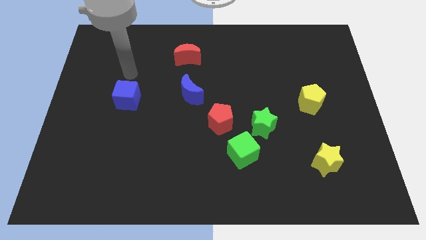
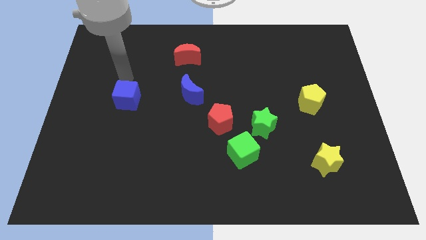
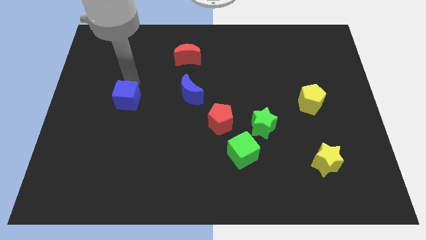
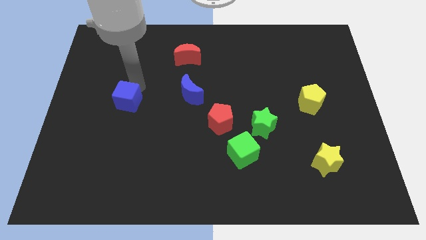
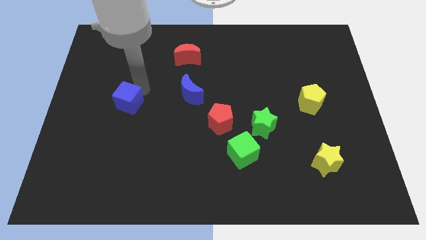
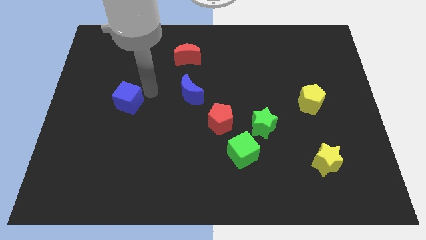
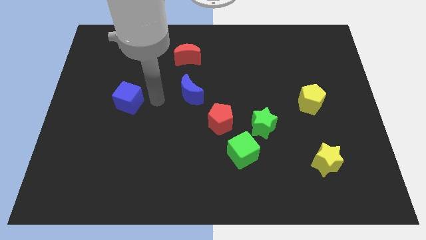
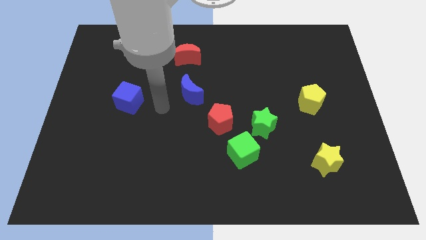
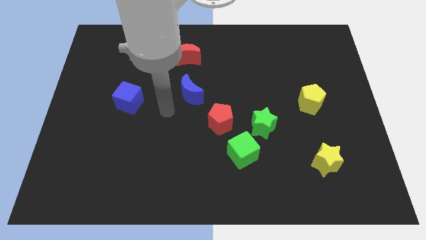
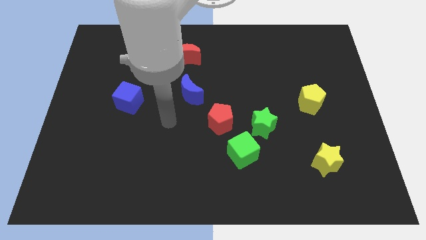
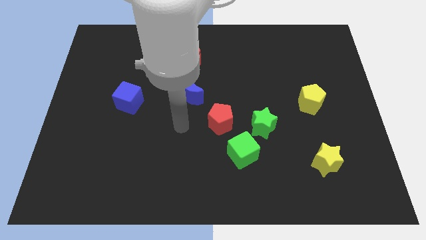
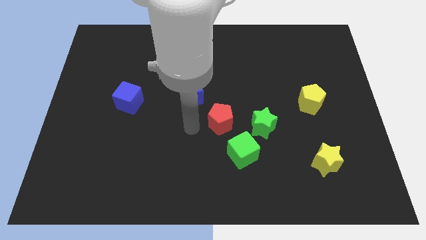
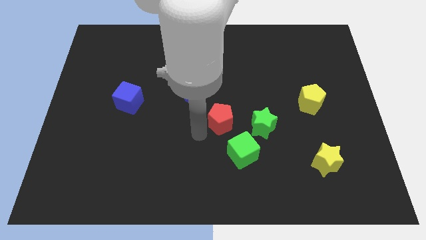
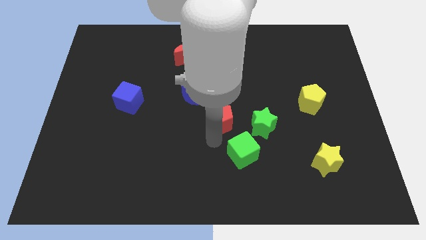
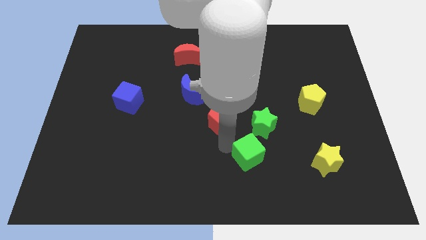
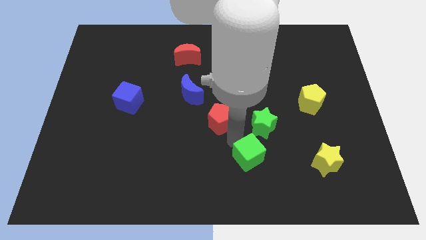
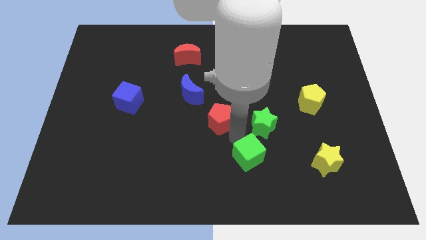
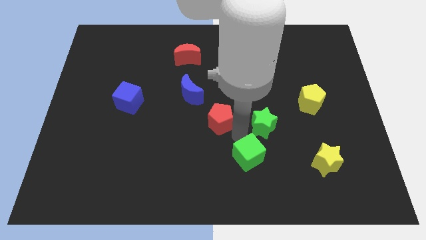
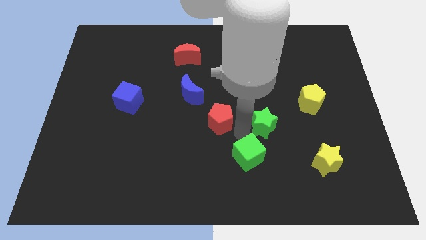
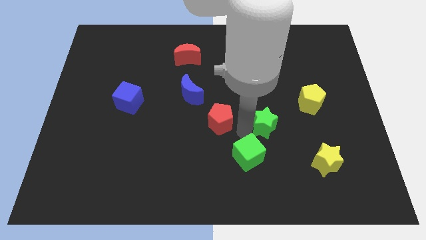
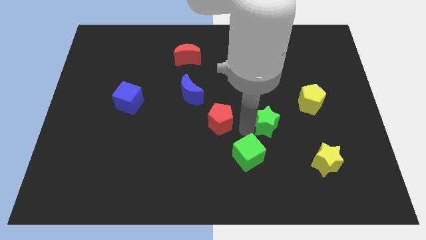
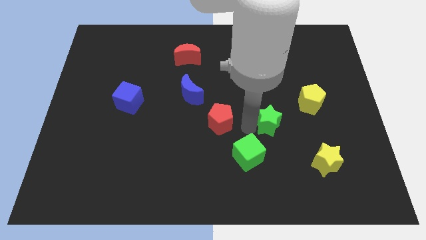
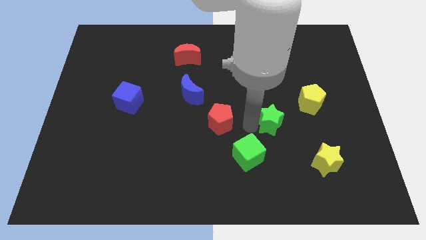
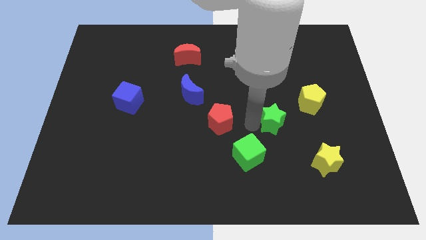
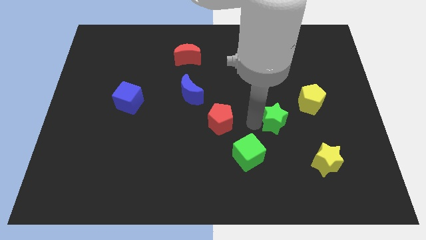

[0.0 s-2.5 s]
separate the green star from the green cube and red pentagon

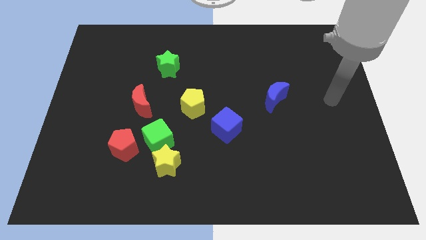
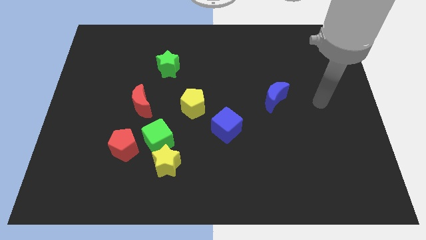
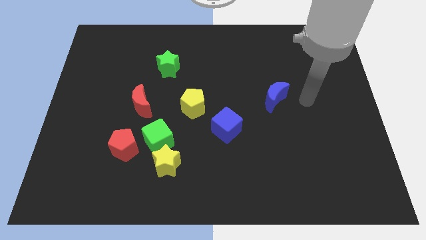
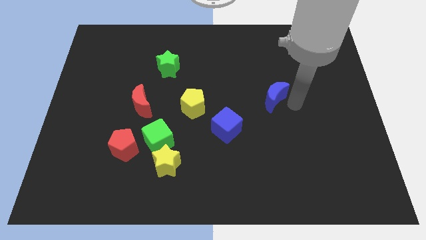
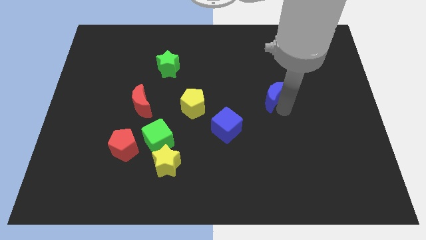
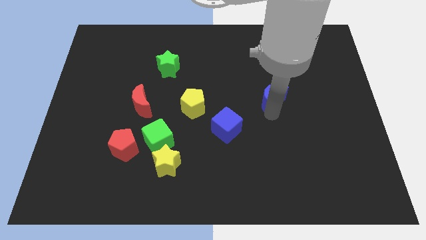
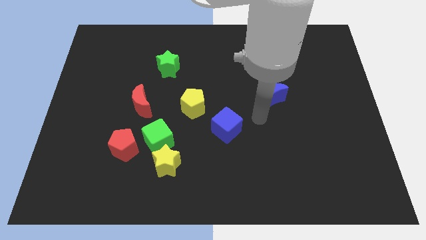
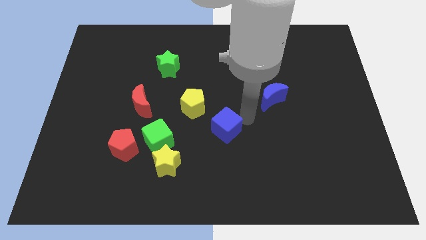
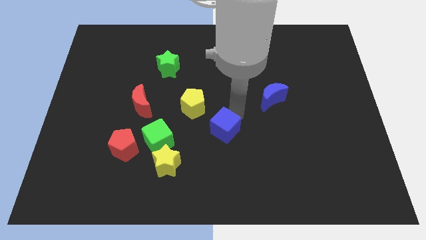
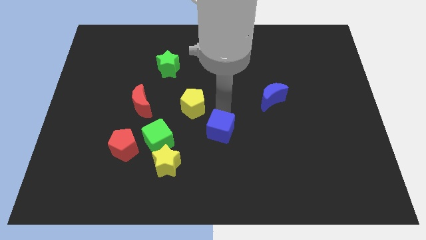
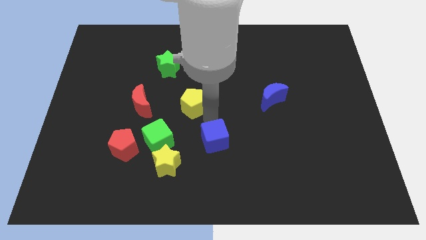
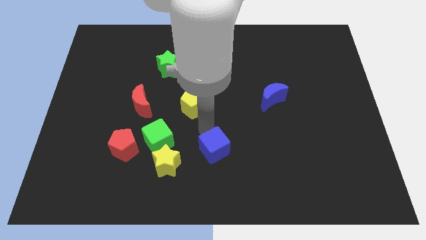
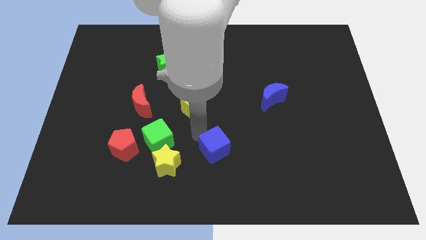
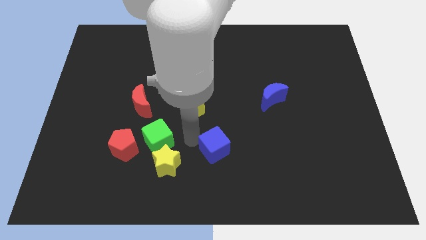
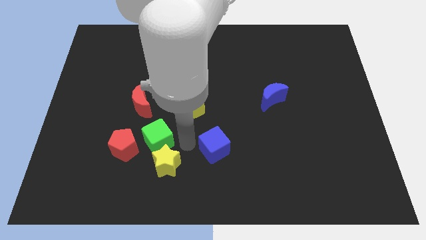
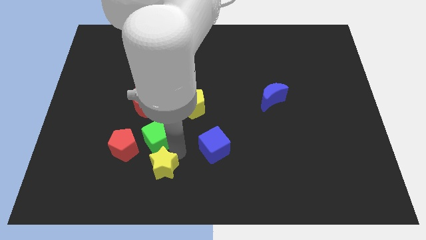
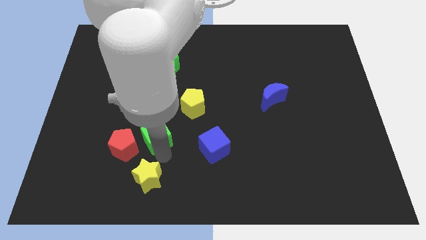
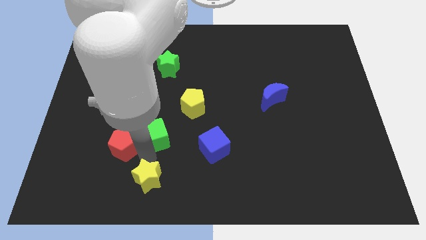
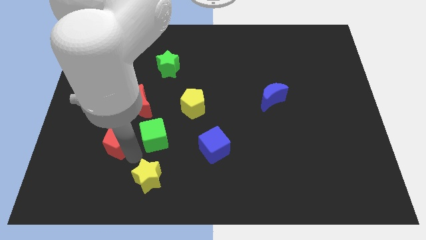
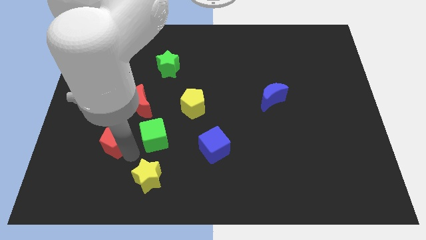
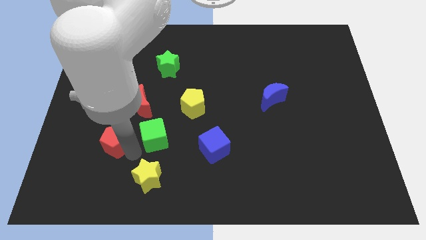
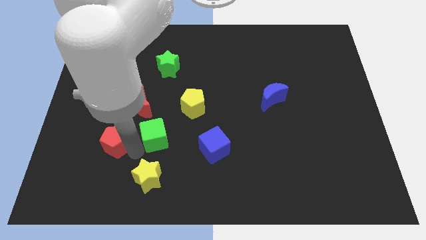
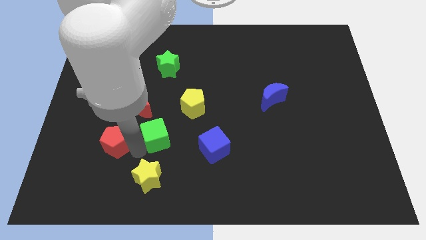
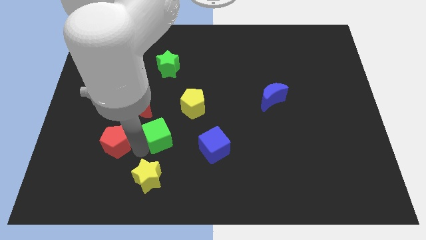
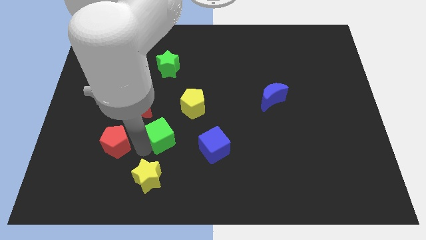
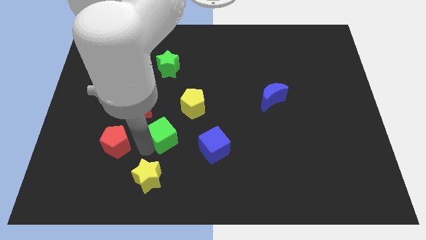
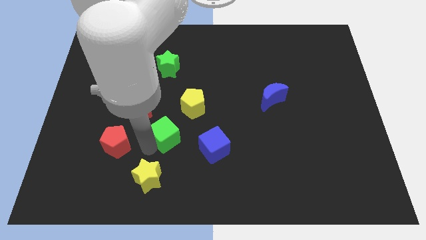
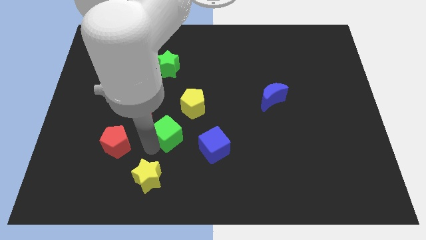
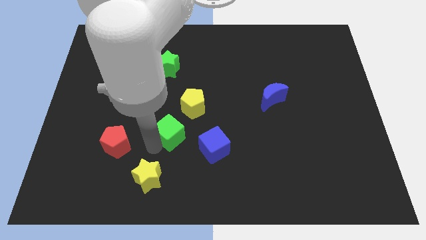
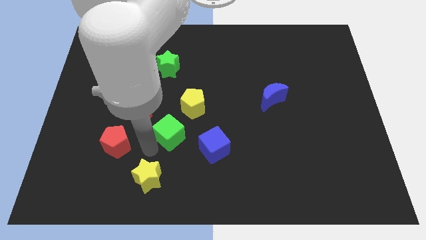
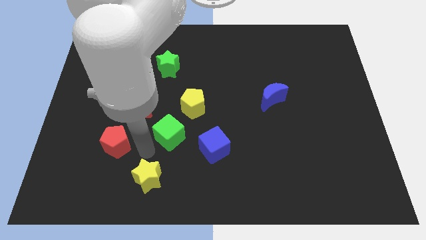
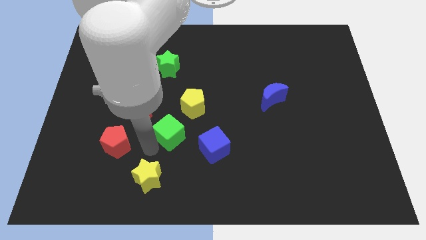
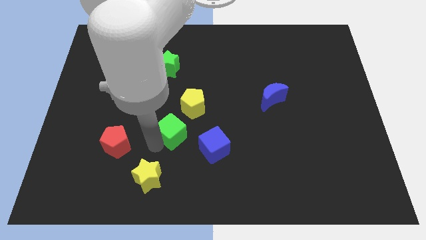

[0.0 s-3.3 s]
separate the green cube from the yellow star and red pentagon

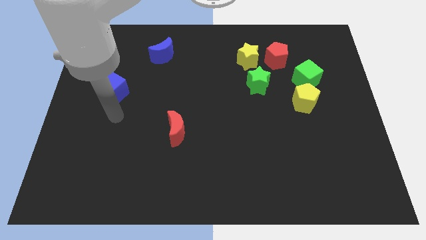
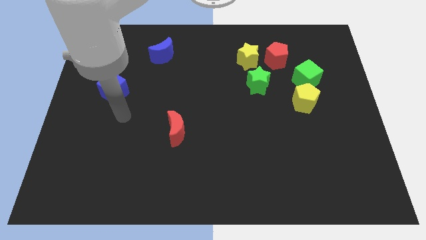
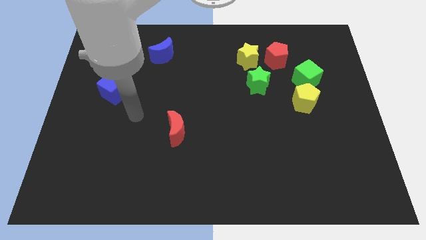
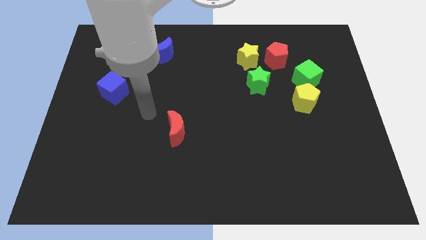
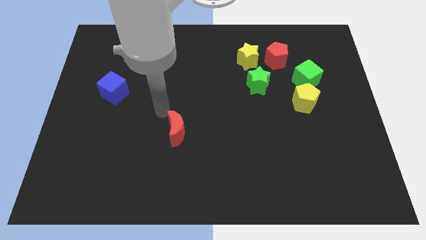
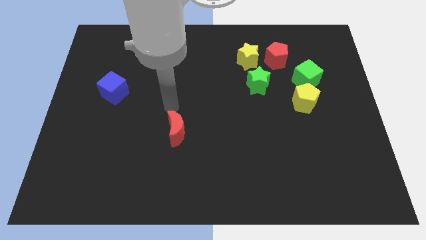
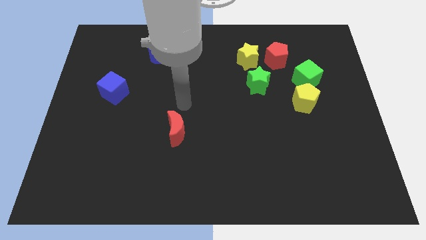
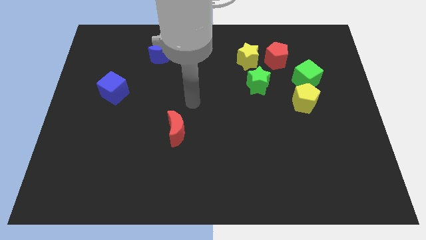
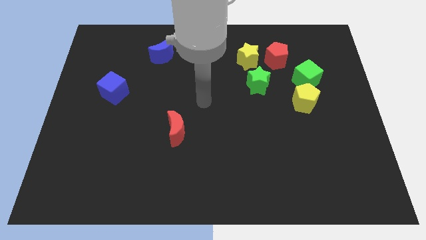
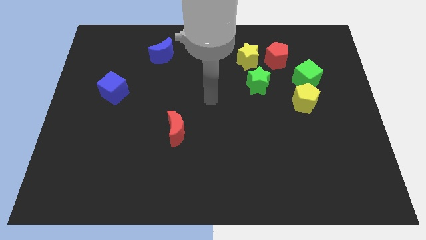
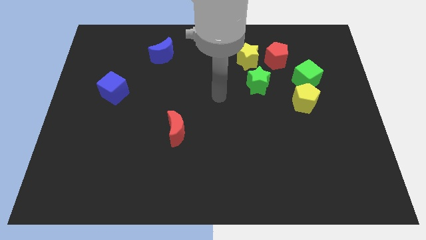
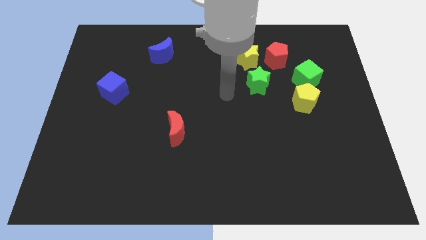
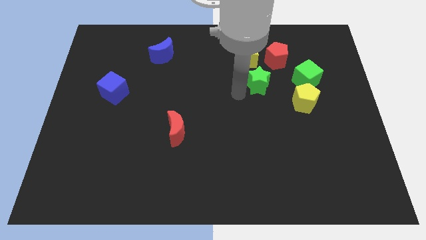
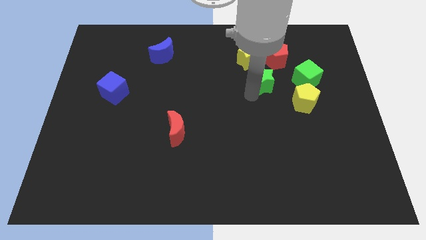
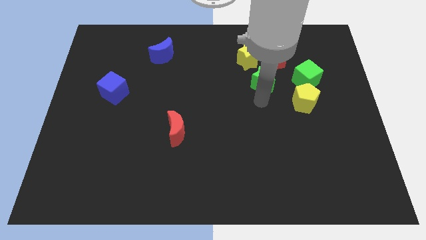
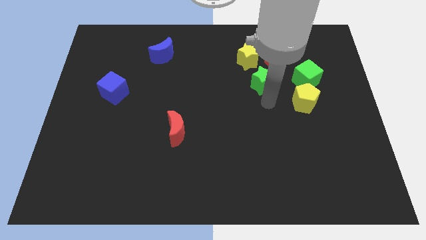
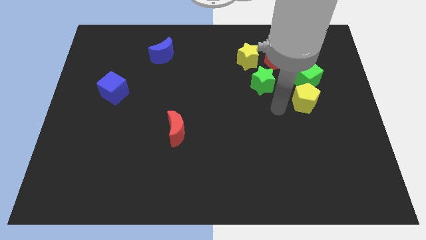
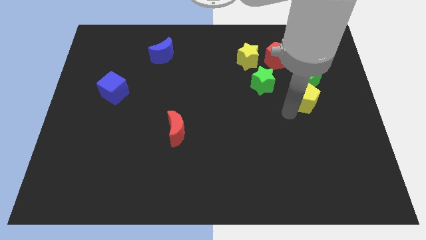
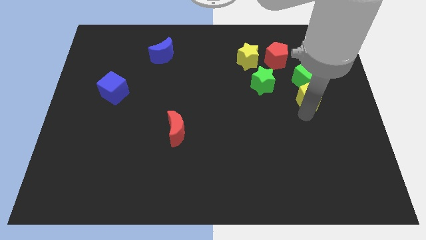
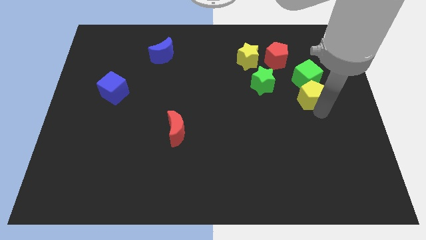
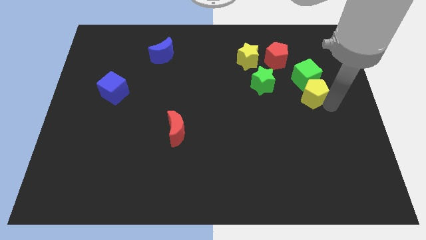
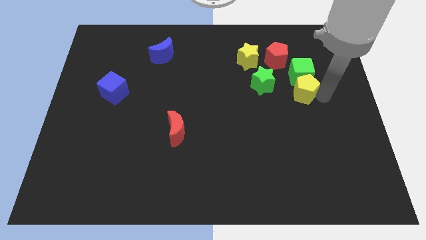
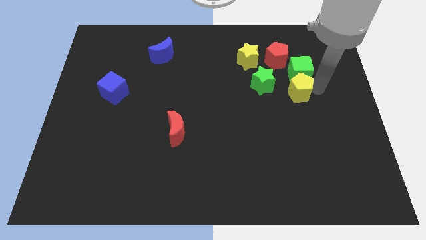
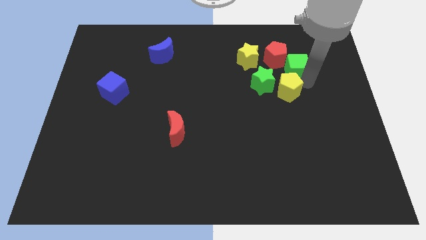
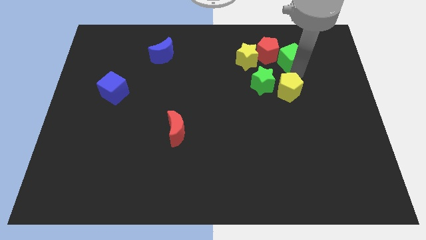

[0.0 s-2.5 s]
move the yellow pentagon away from the green cube

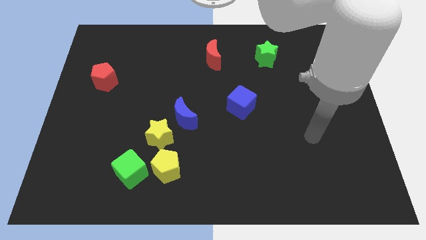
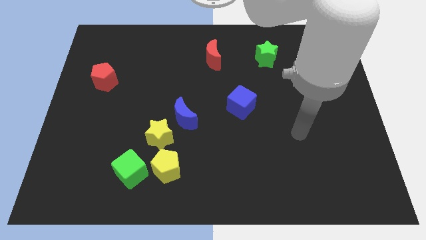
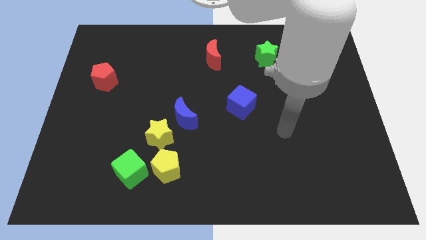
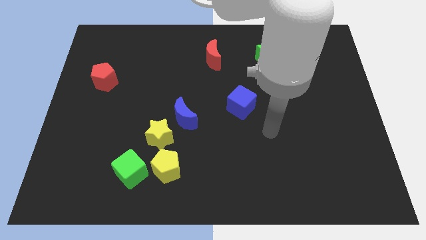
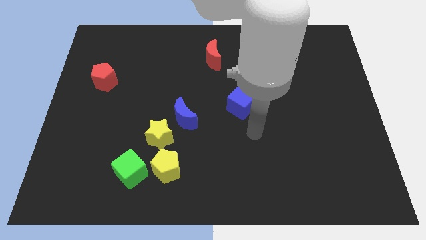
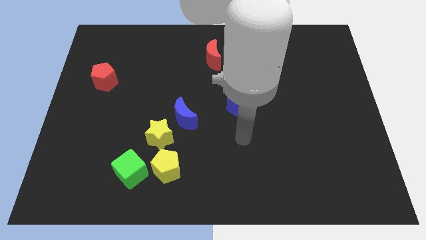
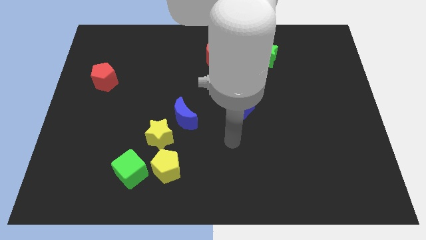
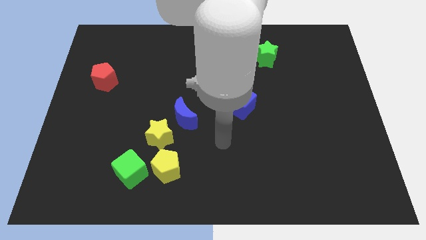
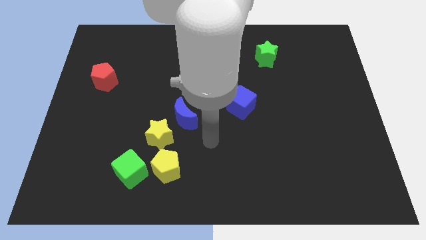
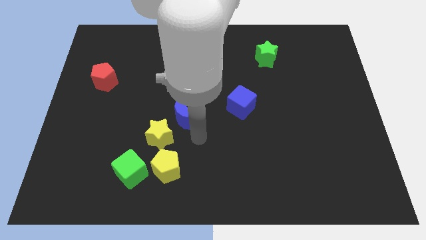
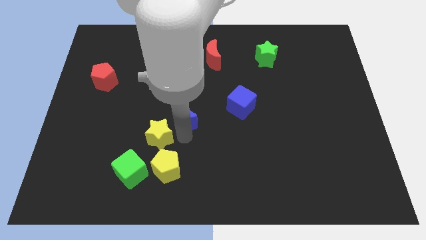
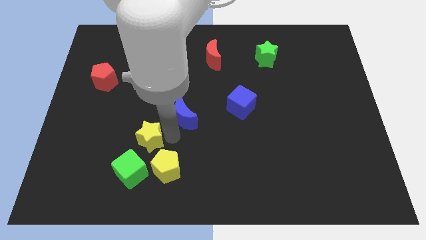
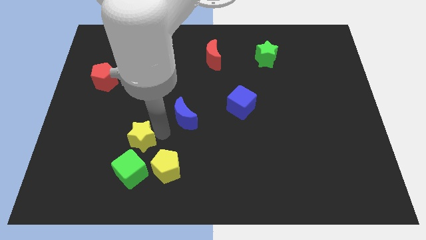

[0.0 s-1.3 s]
move the blue moon away from the yellow star
